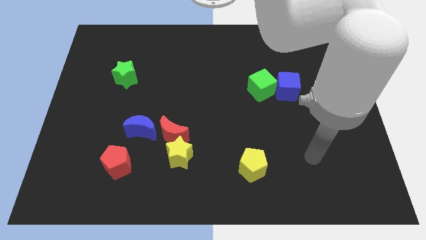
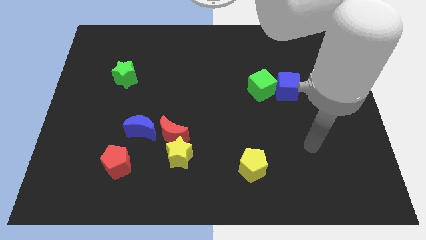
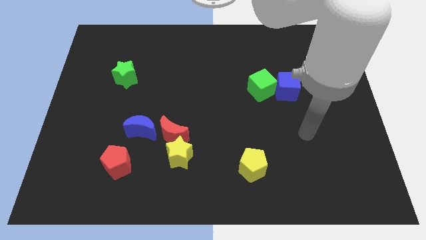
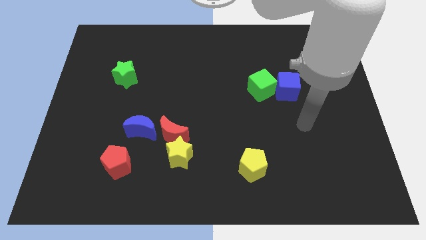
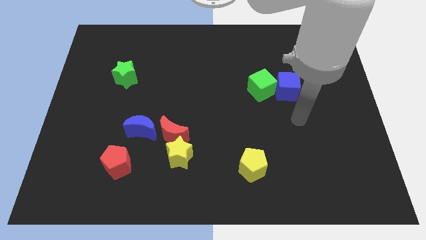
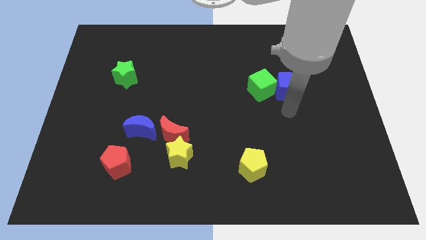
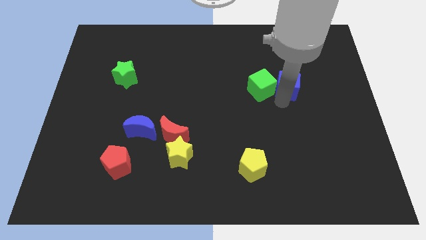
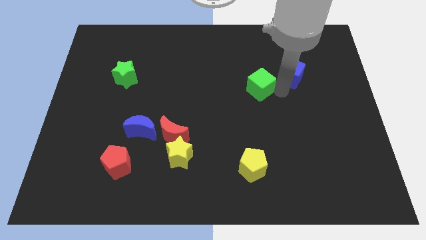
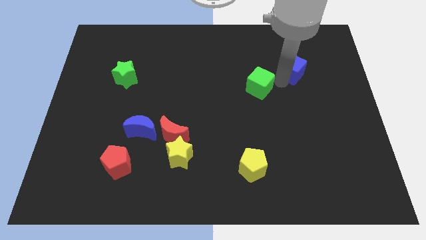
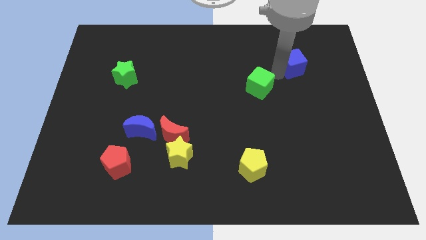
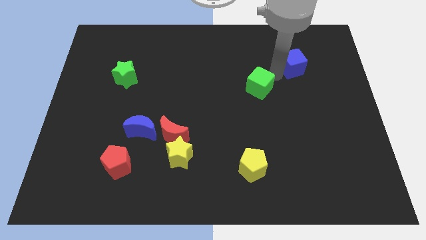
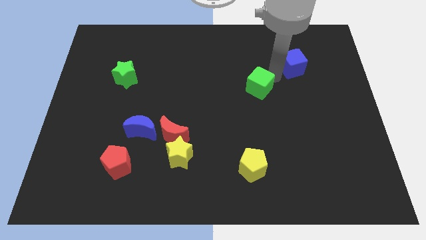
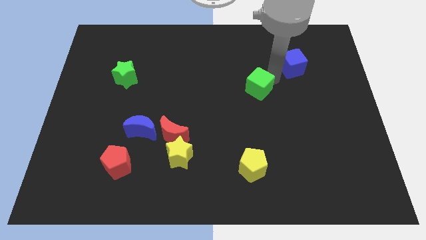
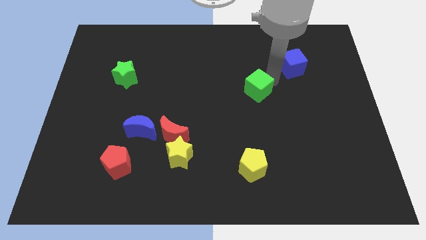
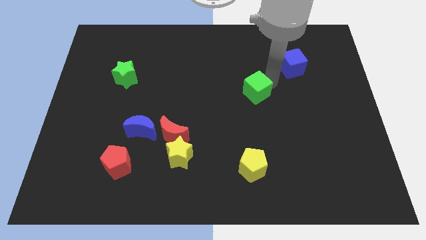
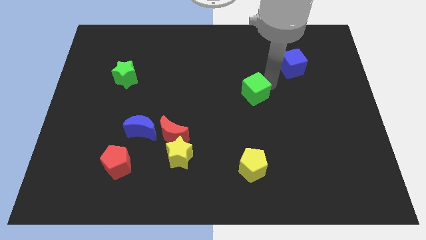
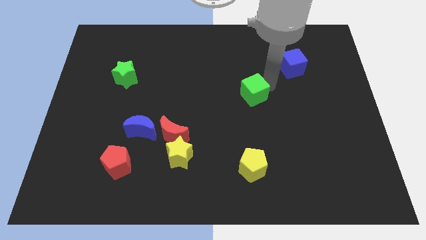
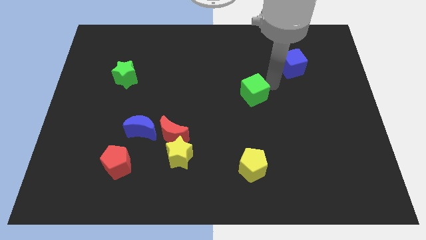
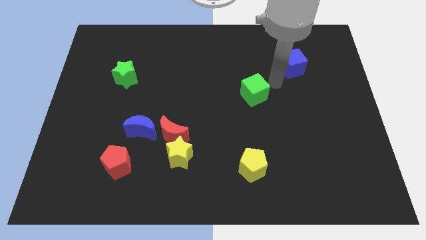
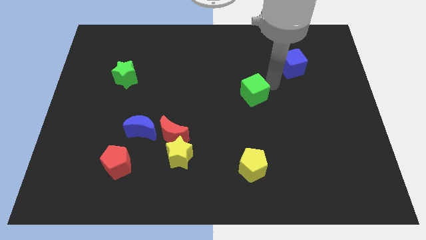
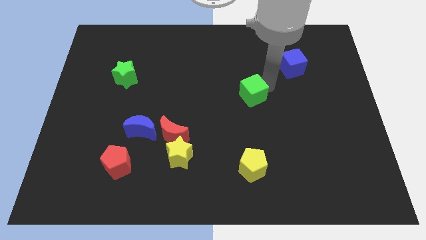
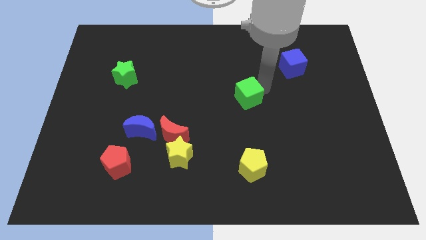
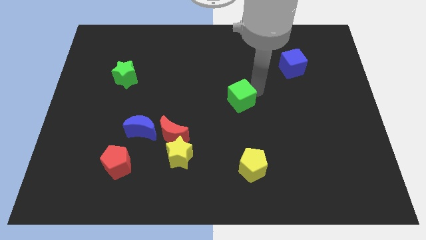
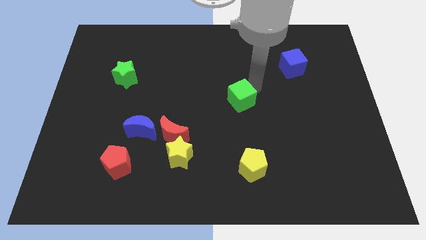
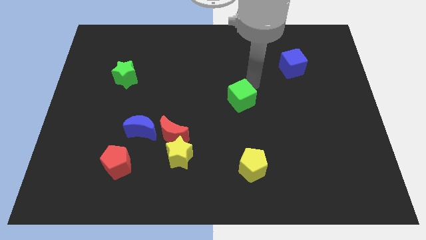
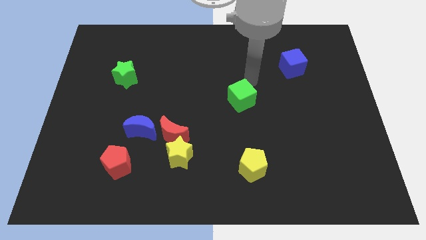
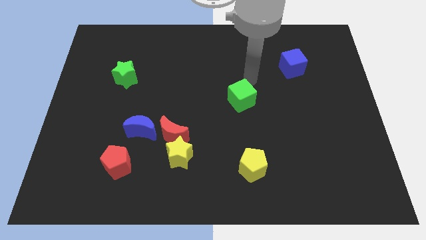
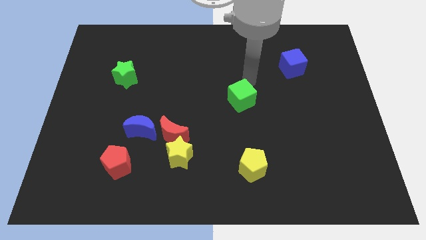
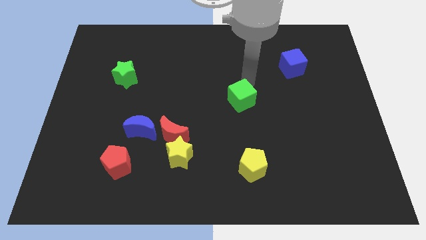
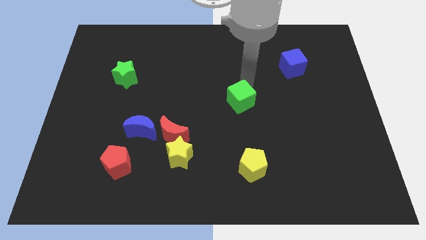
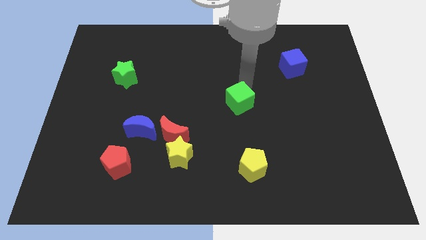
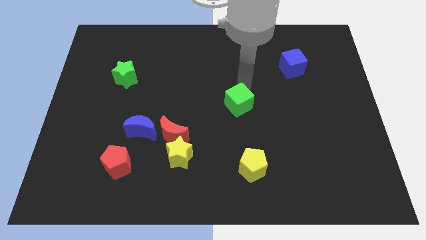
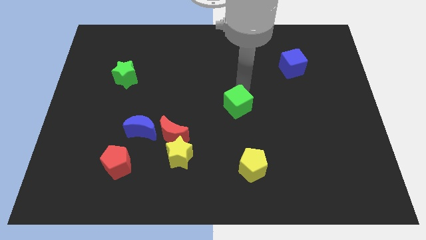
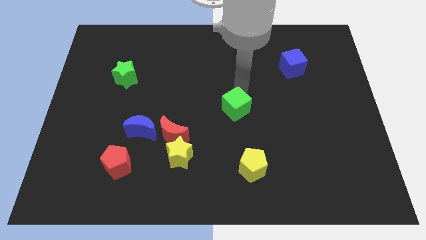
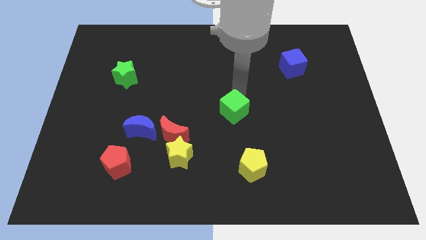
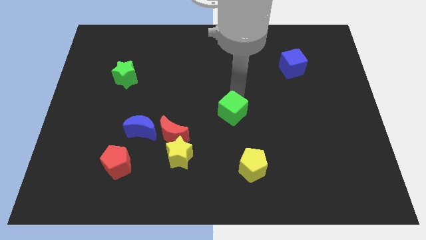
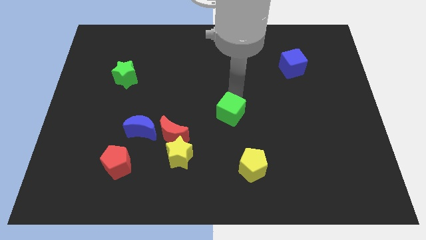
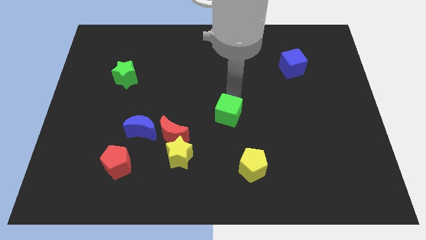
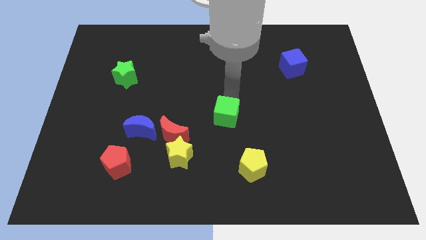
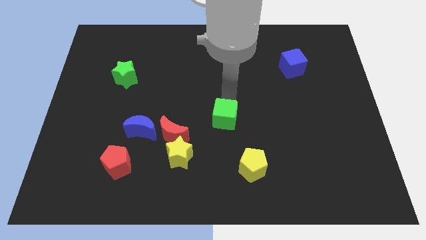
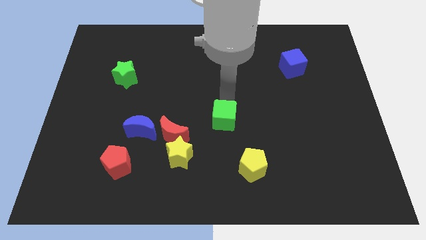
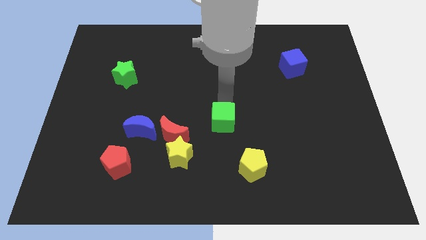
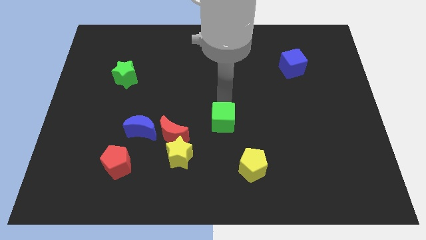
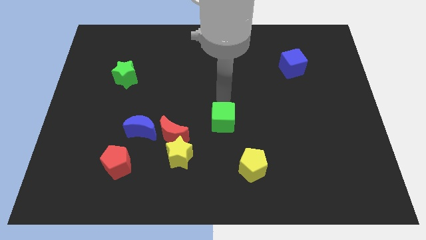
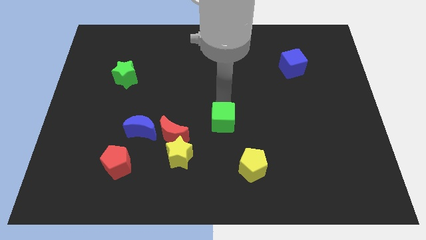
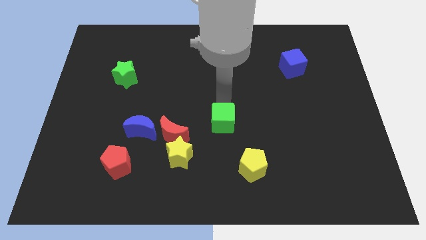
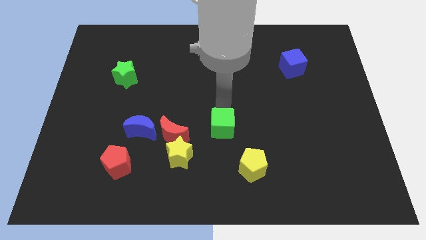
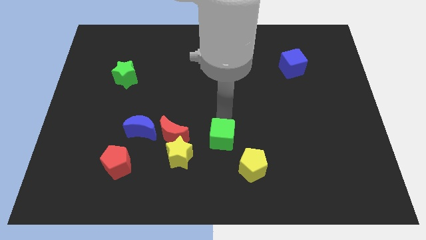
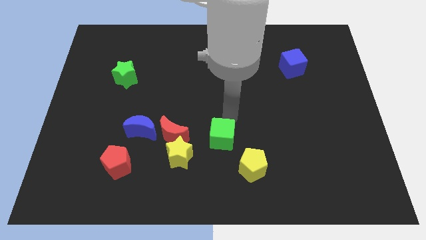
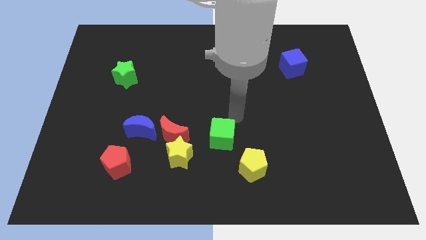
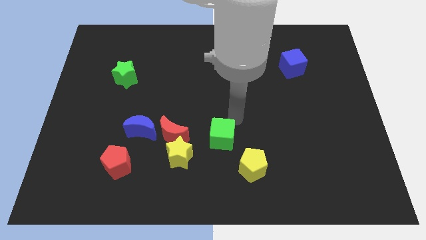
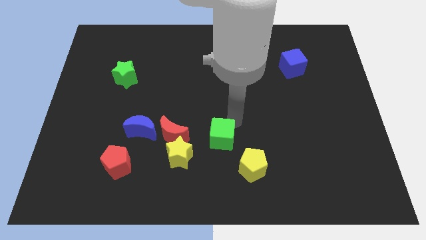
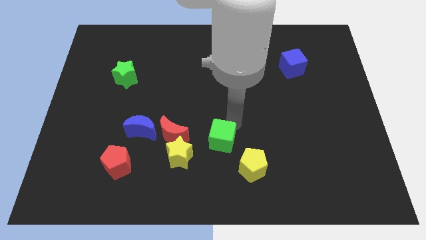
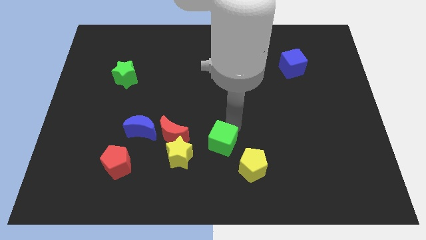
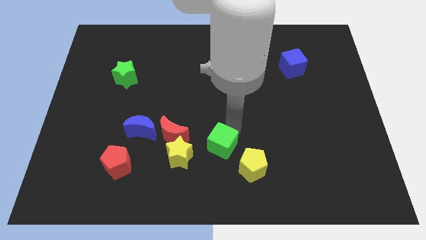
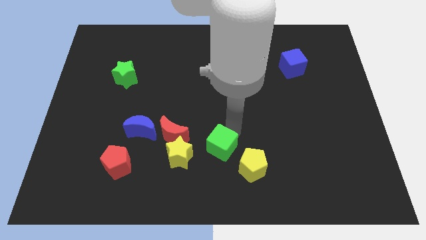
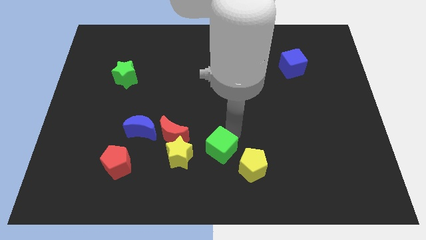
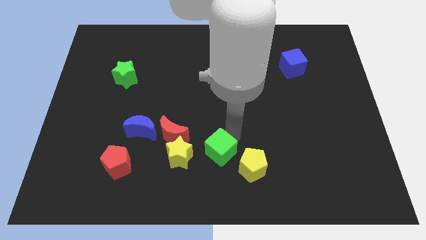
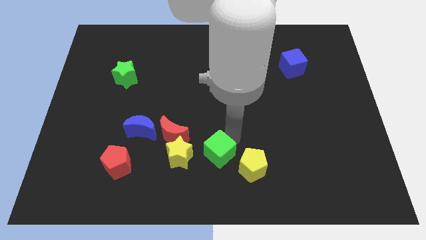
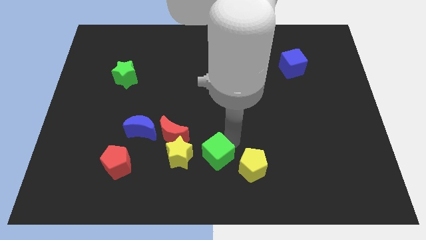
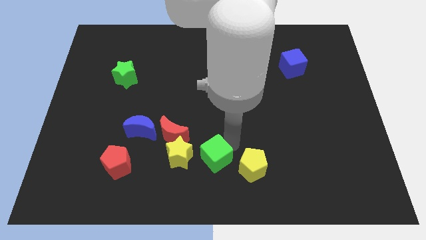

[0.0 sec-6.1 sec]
slide the green cube down and left diagonally

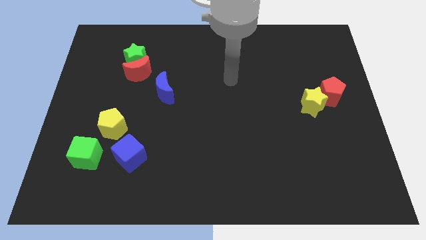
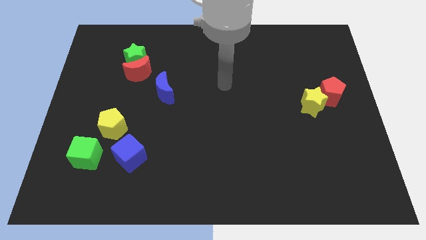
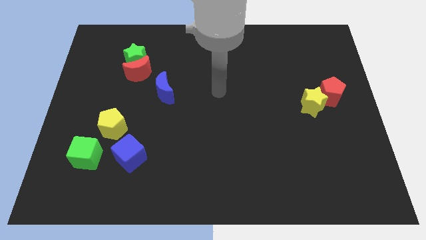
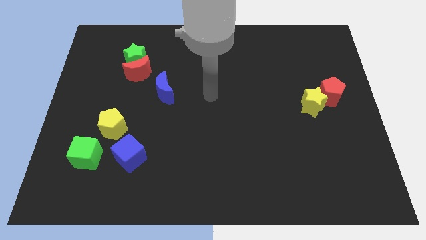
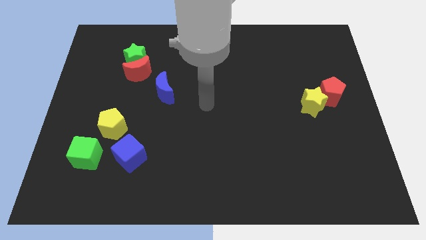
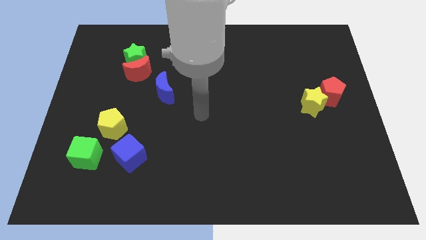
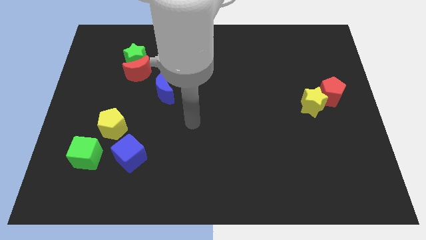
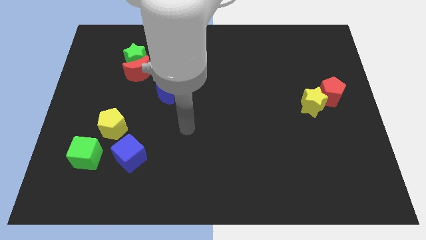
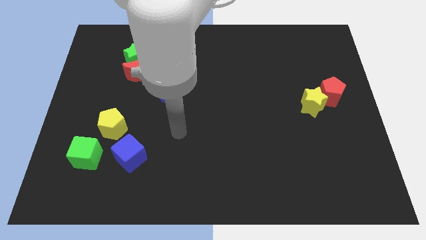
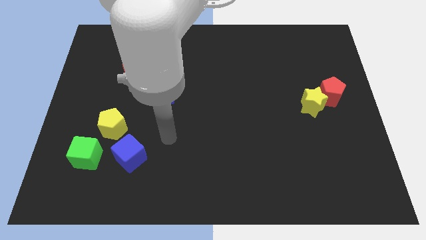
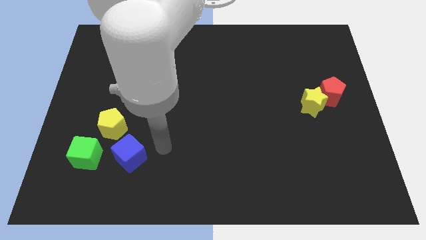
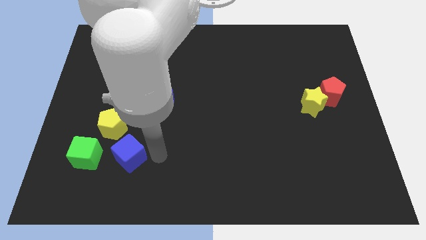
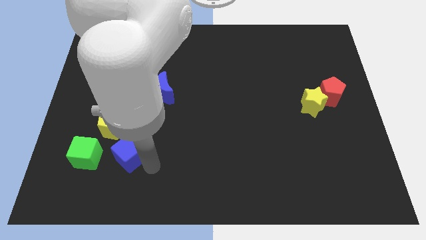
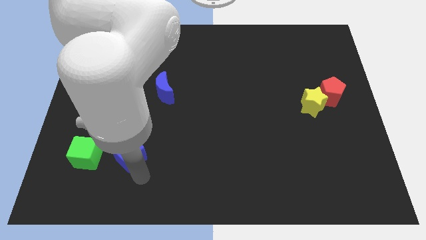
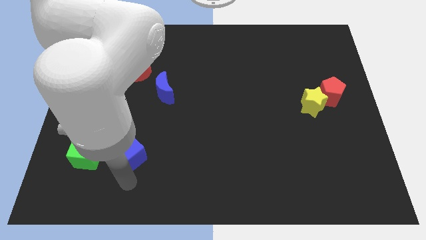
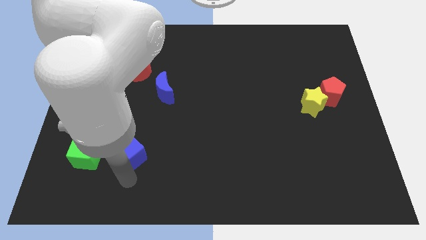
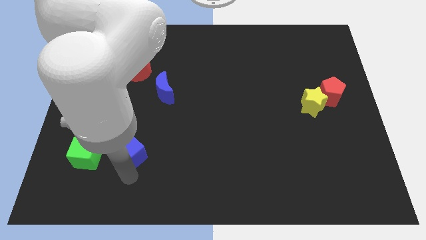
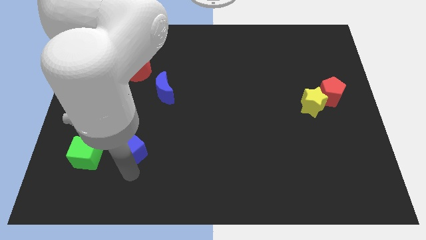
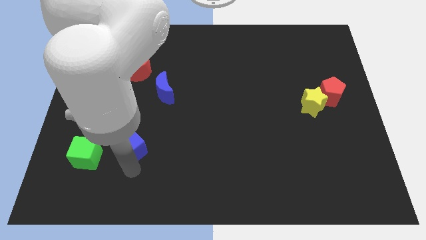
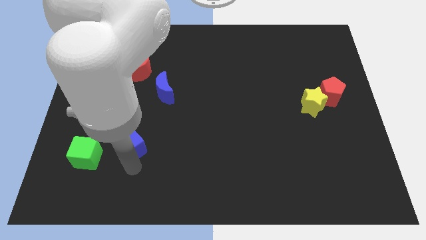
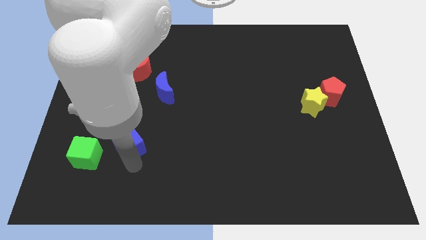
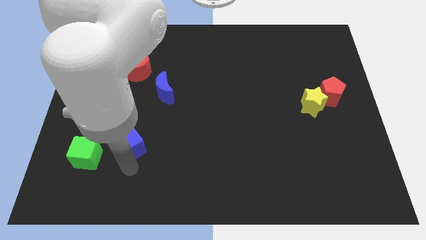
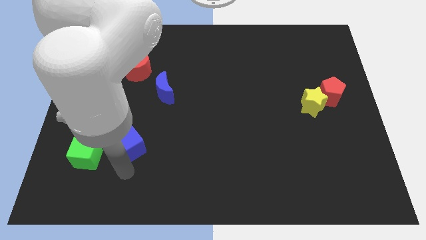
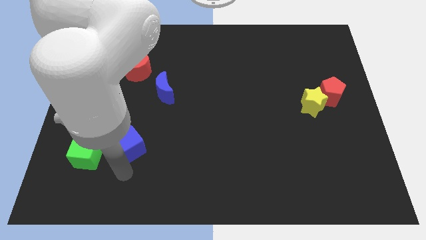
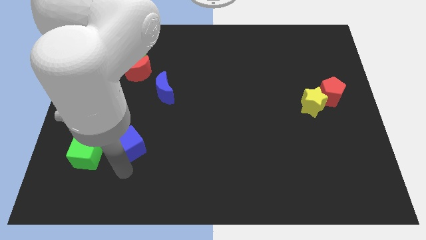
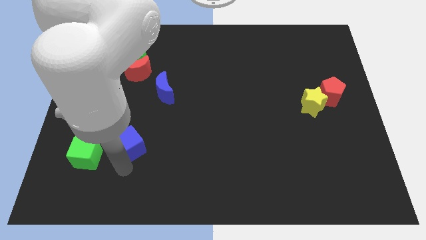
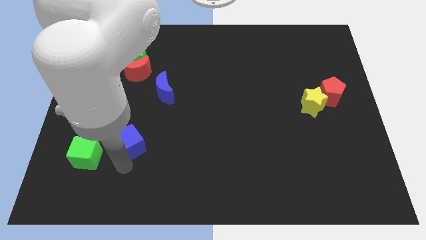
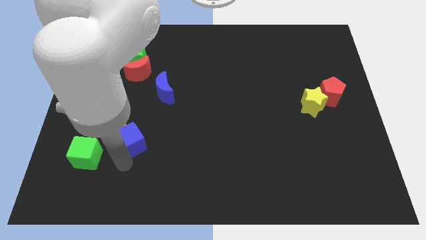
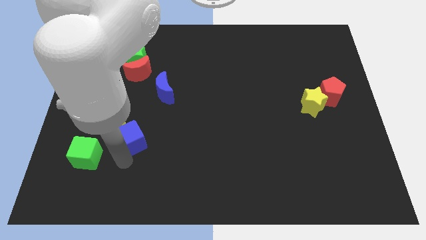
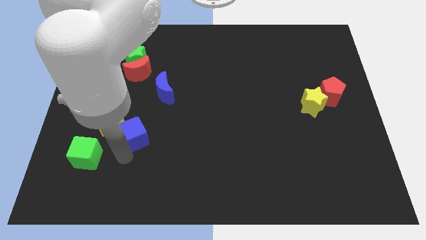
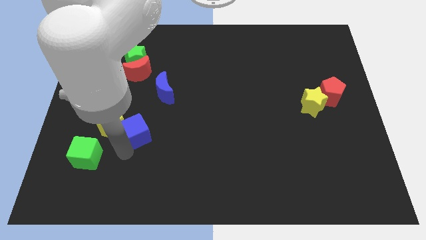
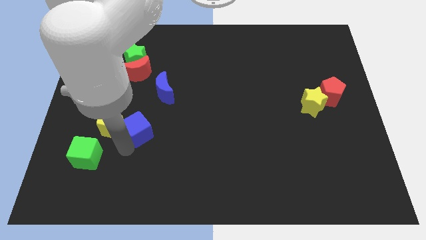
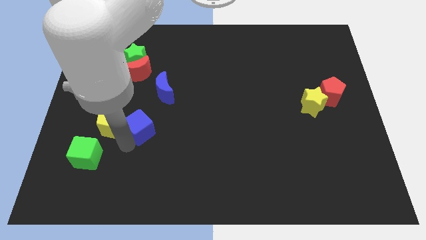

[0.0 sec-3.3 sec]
slide the blue cube a little up
